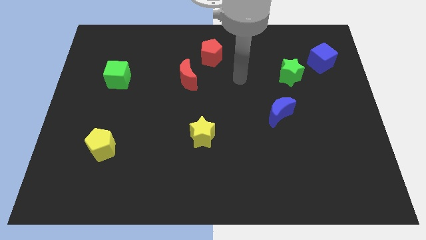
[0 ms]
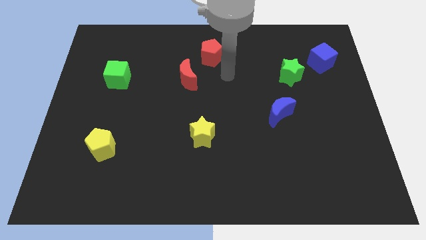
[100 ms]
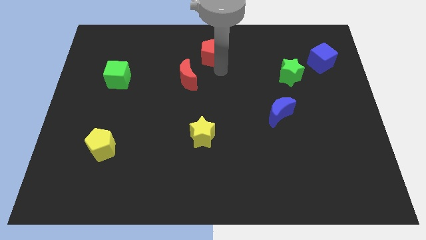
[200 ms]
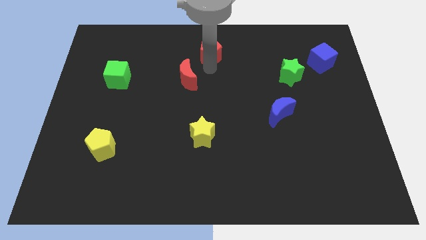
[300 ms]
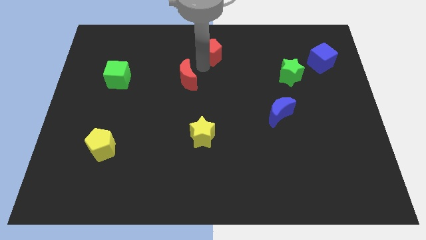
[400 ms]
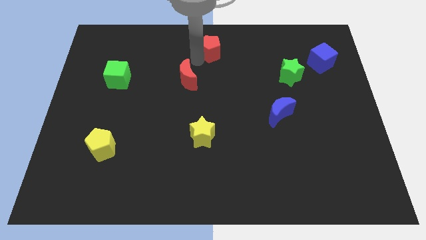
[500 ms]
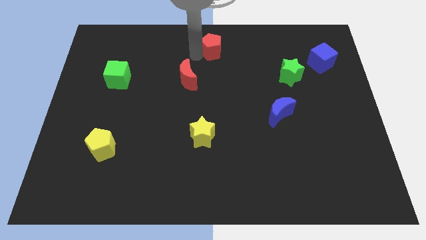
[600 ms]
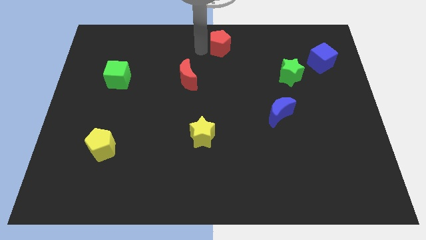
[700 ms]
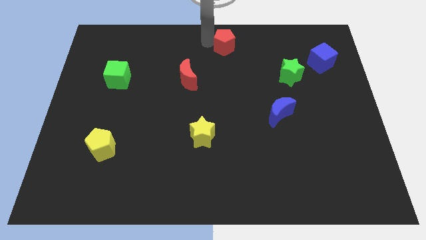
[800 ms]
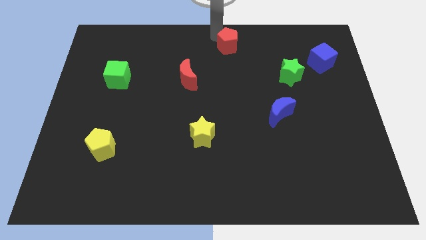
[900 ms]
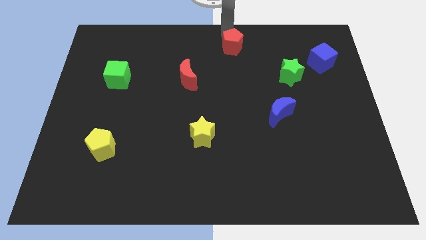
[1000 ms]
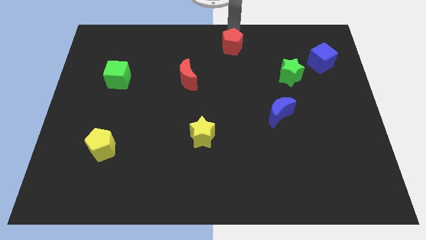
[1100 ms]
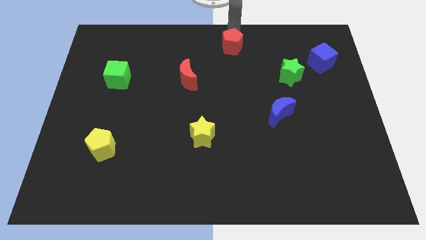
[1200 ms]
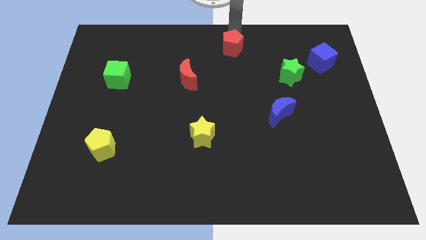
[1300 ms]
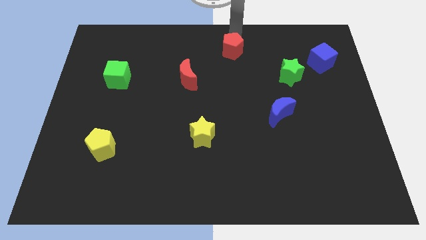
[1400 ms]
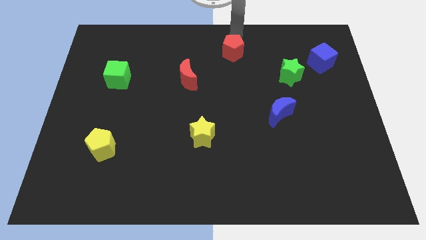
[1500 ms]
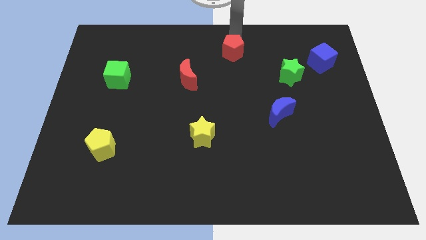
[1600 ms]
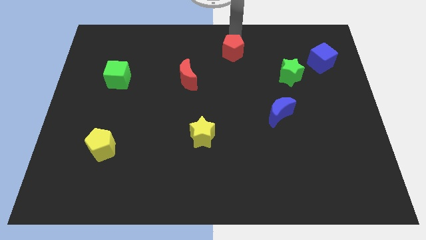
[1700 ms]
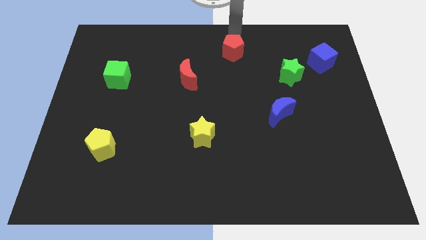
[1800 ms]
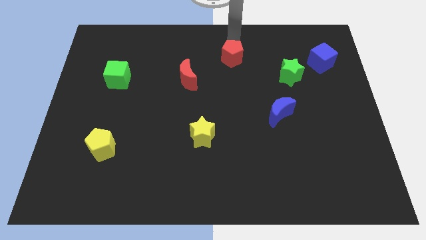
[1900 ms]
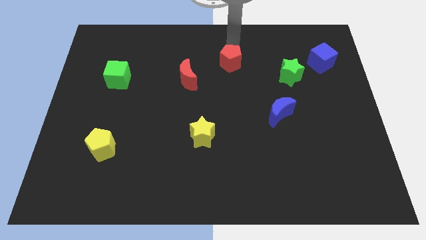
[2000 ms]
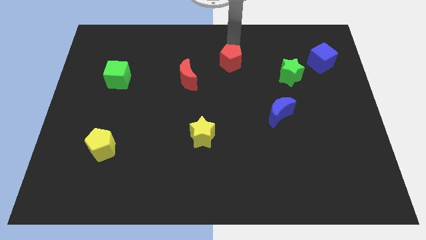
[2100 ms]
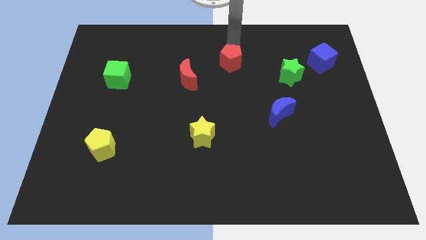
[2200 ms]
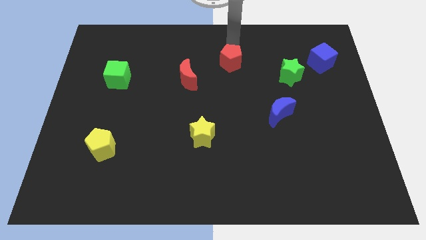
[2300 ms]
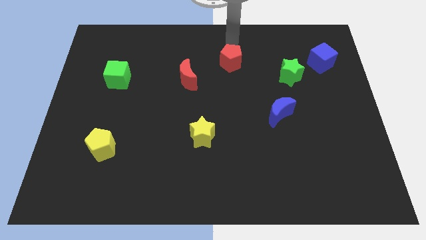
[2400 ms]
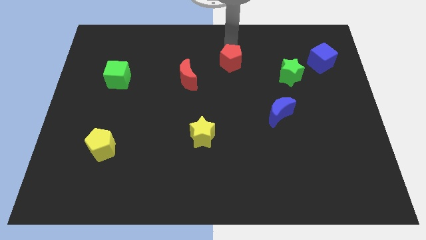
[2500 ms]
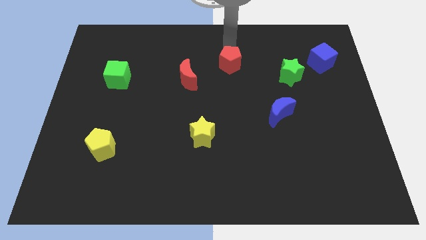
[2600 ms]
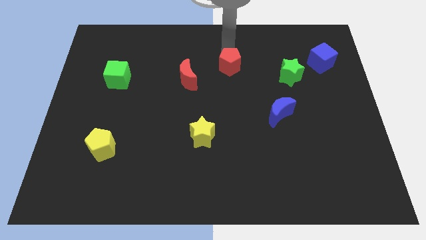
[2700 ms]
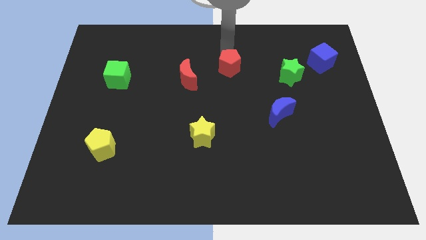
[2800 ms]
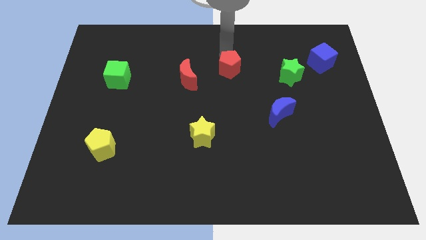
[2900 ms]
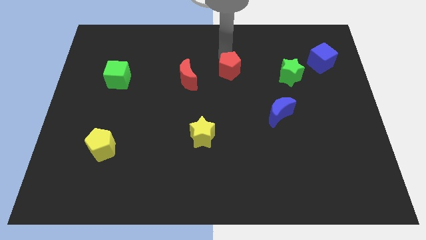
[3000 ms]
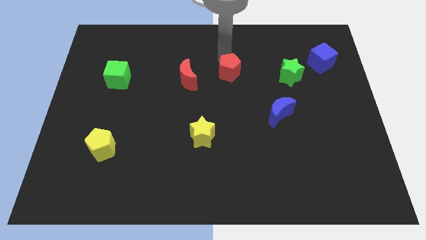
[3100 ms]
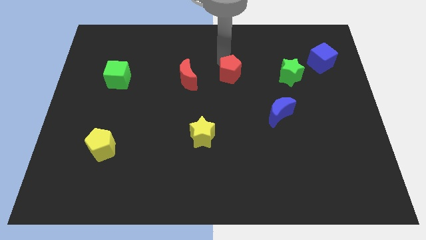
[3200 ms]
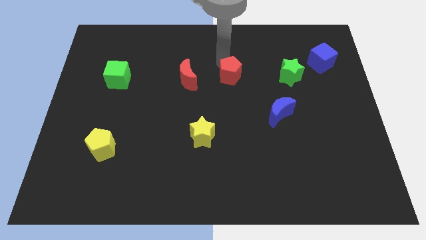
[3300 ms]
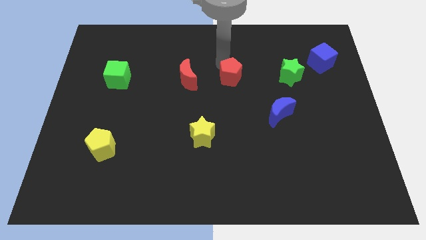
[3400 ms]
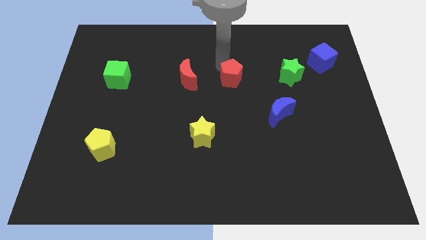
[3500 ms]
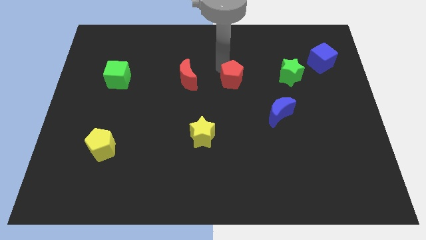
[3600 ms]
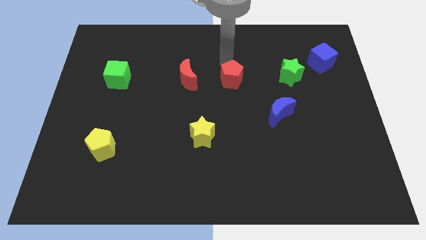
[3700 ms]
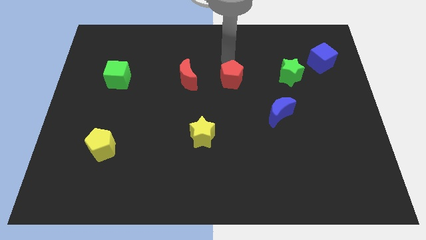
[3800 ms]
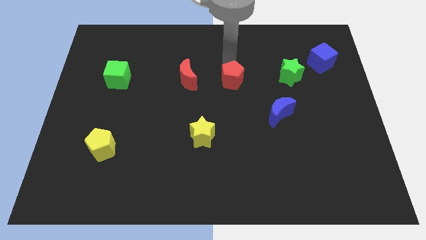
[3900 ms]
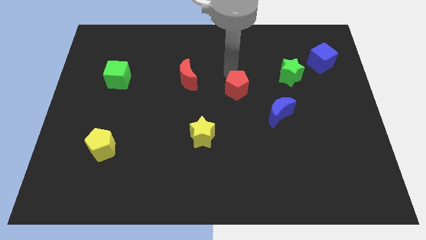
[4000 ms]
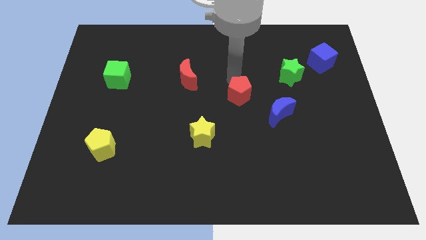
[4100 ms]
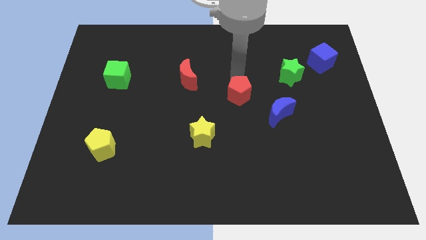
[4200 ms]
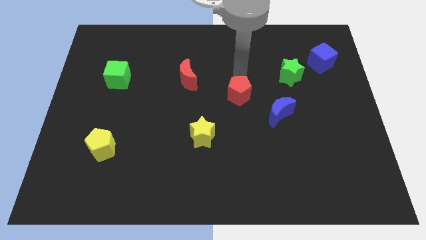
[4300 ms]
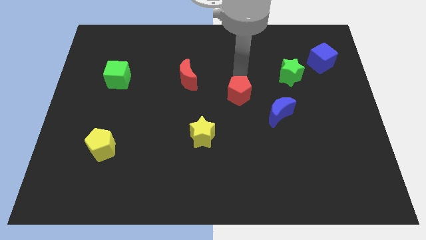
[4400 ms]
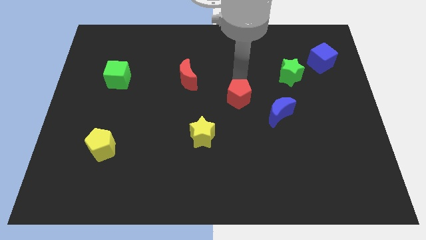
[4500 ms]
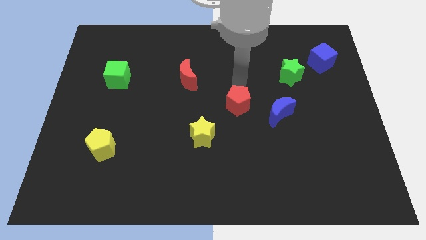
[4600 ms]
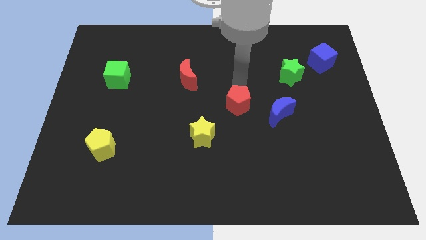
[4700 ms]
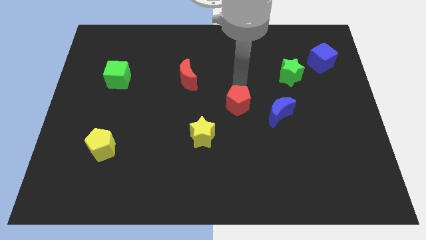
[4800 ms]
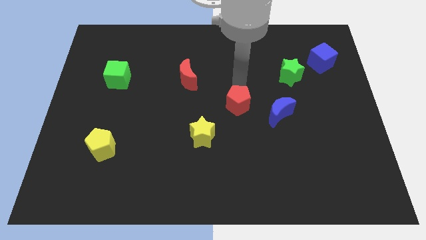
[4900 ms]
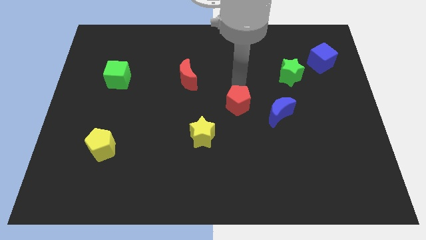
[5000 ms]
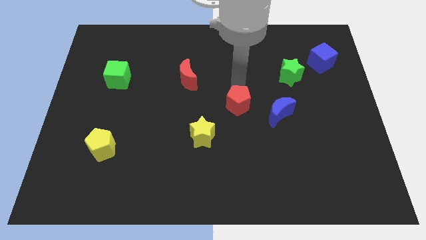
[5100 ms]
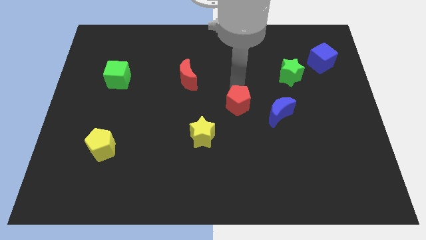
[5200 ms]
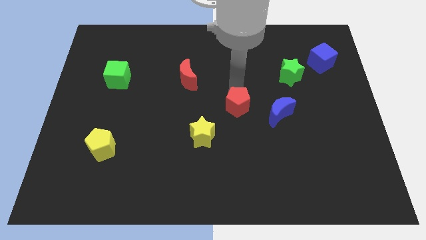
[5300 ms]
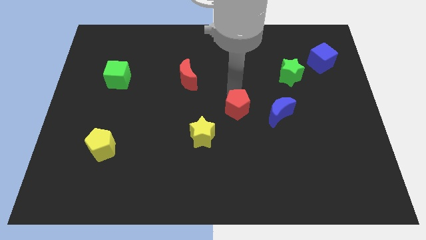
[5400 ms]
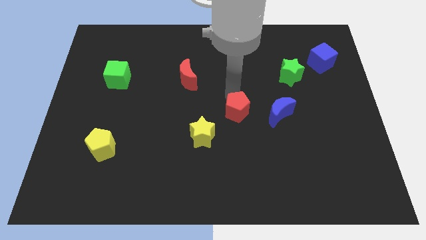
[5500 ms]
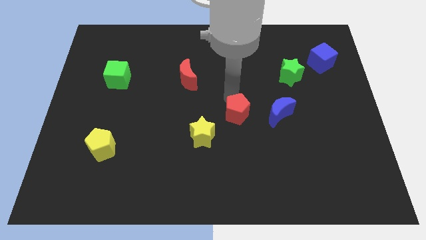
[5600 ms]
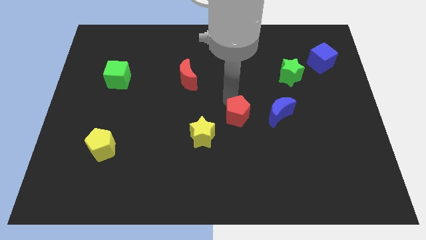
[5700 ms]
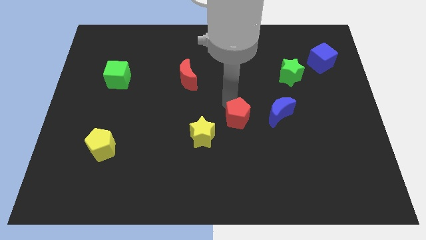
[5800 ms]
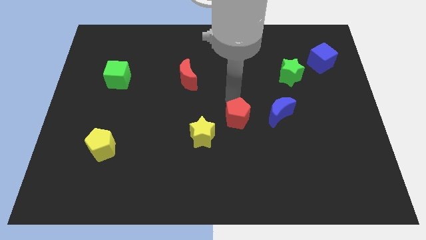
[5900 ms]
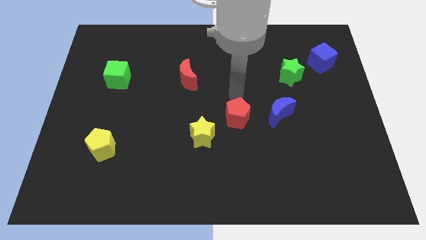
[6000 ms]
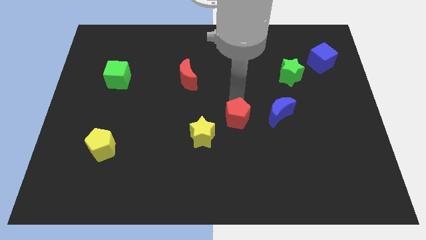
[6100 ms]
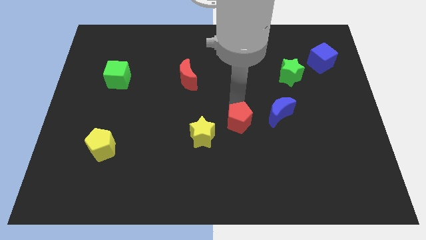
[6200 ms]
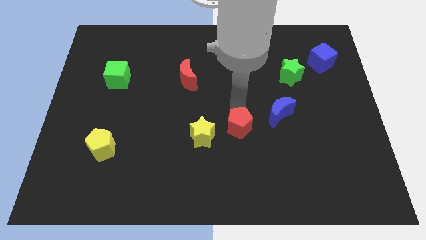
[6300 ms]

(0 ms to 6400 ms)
slide the red pentagon downwards

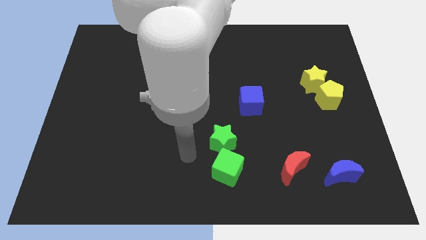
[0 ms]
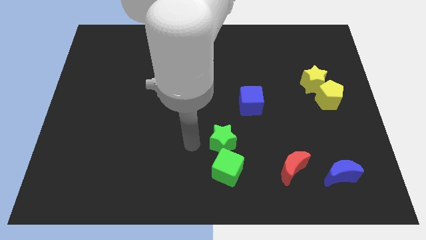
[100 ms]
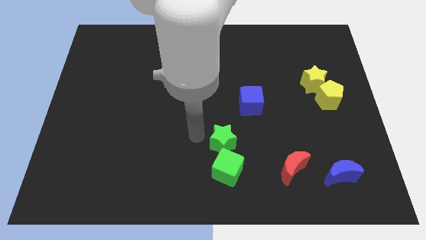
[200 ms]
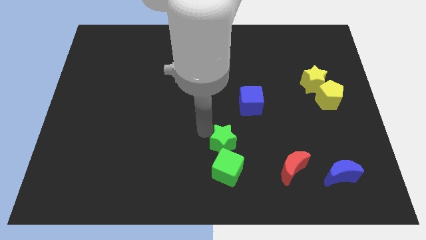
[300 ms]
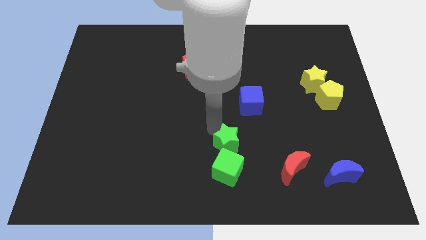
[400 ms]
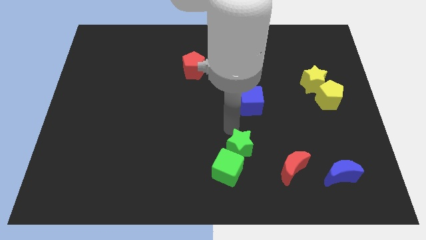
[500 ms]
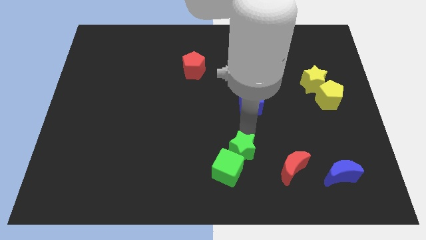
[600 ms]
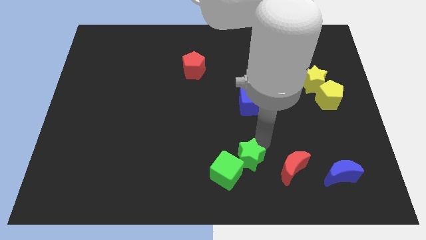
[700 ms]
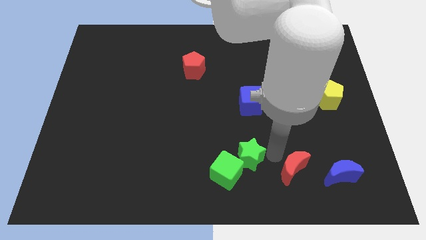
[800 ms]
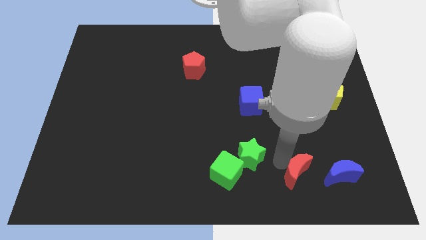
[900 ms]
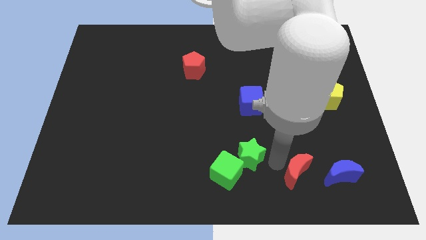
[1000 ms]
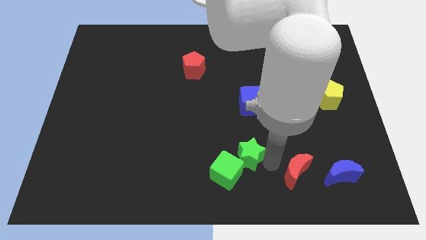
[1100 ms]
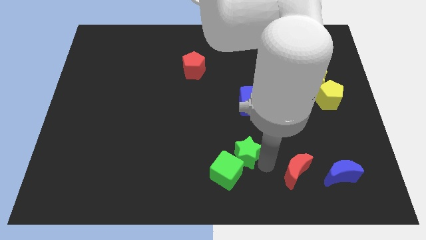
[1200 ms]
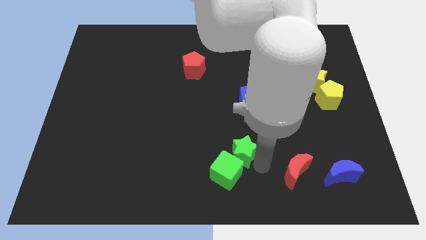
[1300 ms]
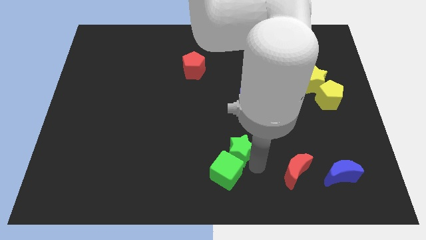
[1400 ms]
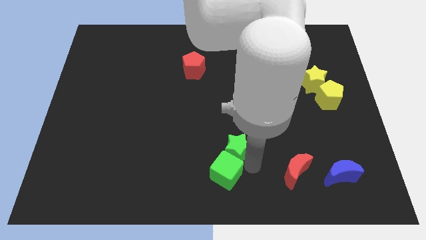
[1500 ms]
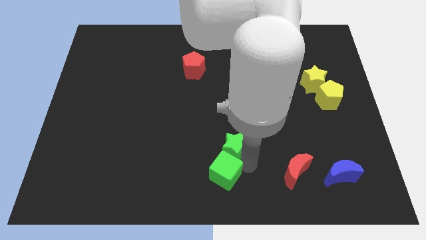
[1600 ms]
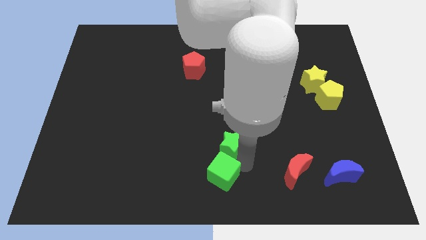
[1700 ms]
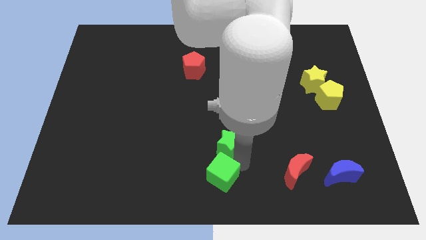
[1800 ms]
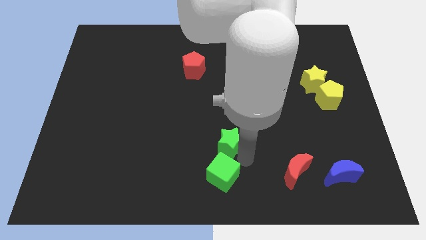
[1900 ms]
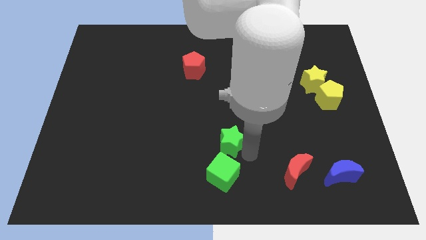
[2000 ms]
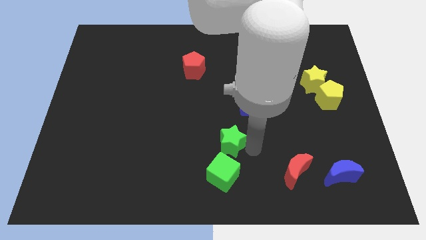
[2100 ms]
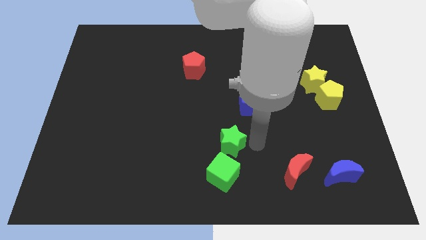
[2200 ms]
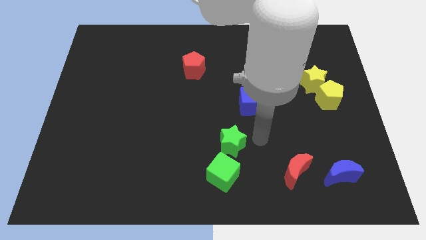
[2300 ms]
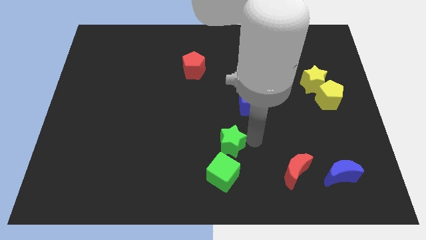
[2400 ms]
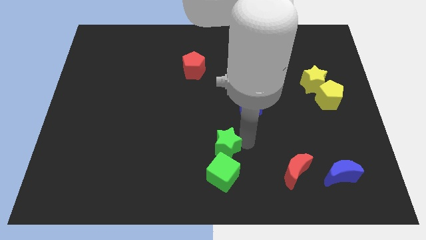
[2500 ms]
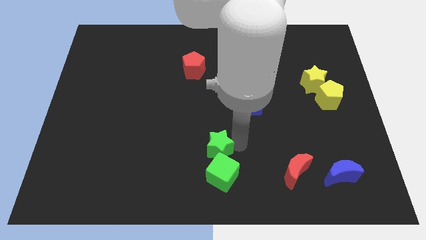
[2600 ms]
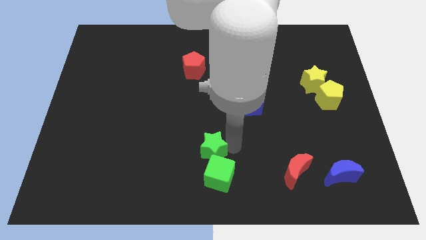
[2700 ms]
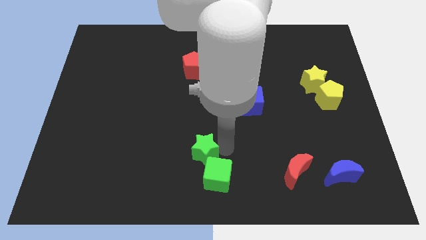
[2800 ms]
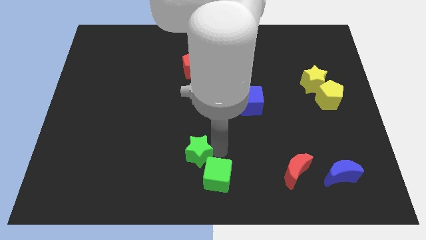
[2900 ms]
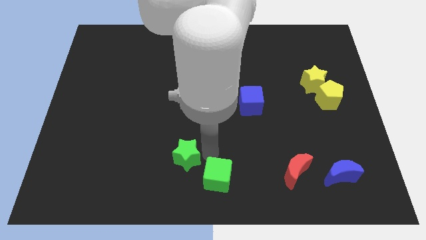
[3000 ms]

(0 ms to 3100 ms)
push the green star a bit to the left
